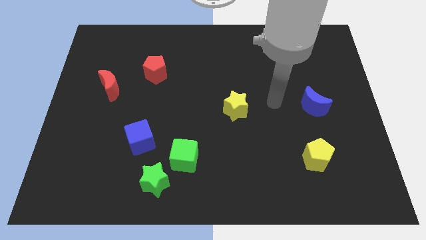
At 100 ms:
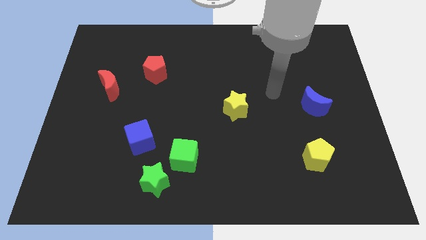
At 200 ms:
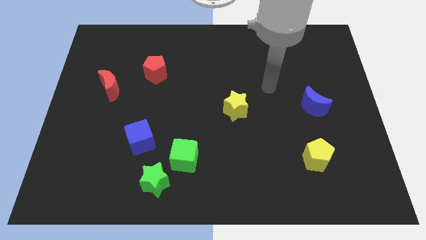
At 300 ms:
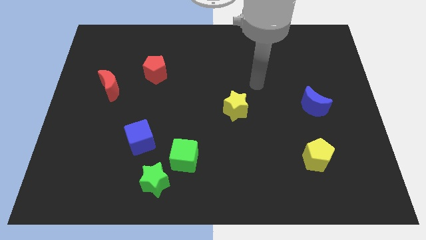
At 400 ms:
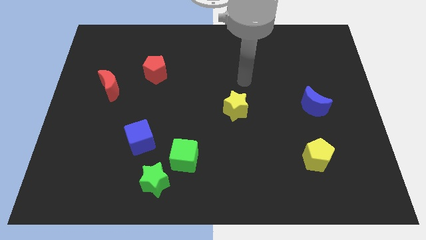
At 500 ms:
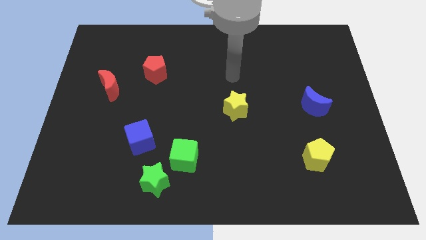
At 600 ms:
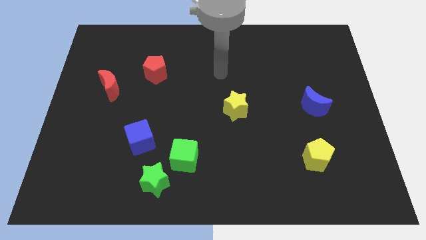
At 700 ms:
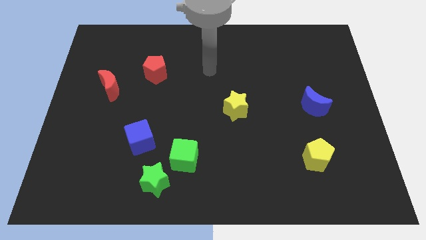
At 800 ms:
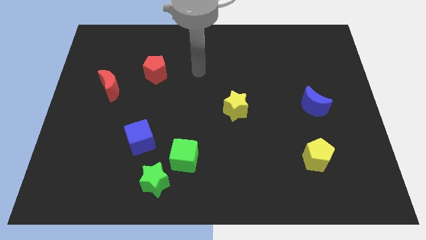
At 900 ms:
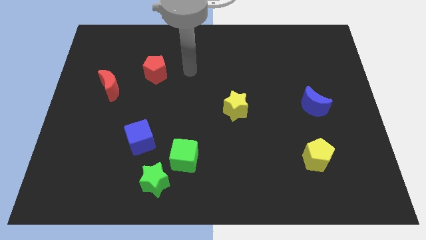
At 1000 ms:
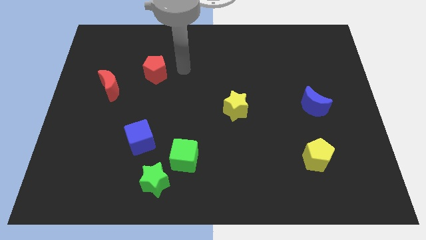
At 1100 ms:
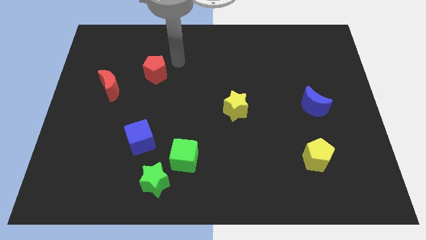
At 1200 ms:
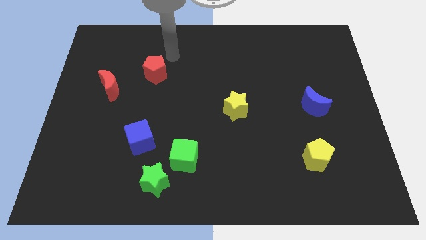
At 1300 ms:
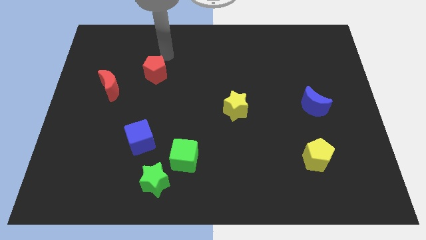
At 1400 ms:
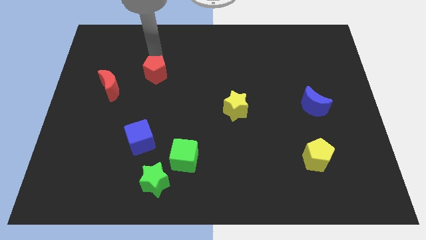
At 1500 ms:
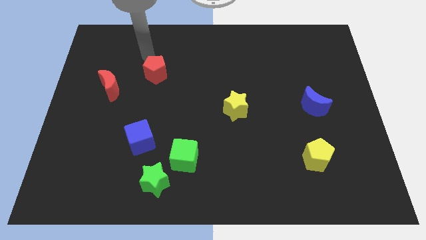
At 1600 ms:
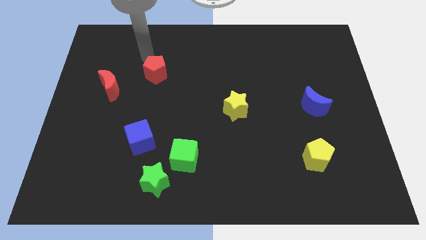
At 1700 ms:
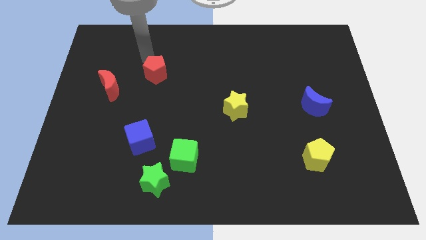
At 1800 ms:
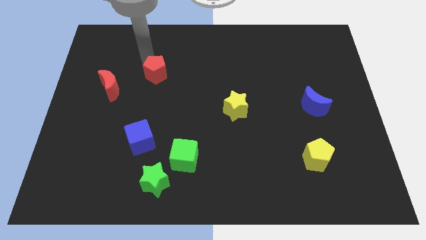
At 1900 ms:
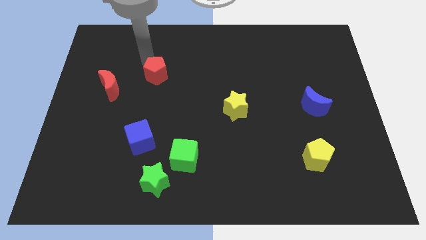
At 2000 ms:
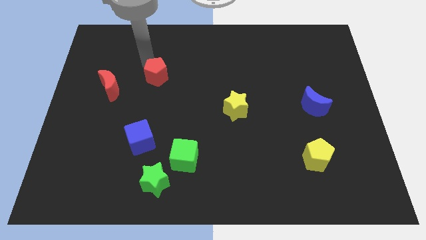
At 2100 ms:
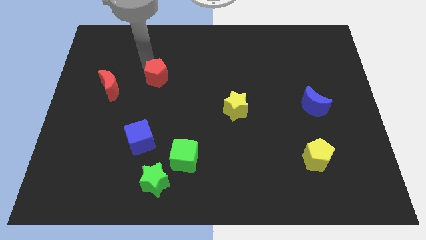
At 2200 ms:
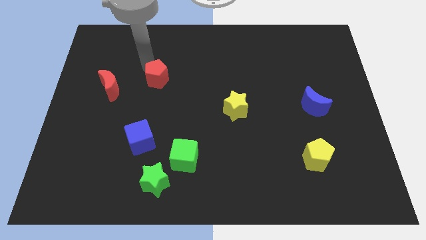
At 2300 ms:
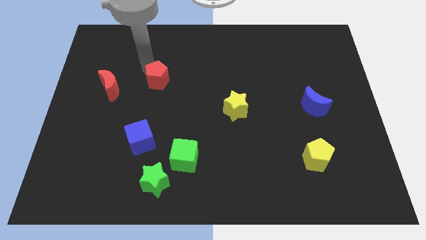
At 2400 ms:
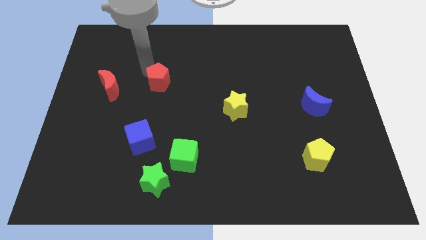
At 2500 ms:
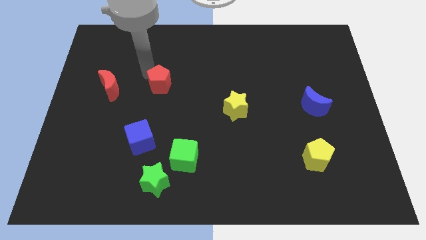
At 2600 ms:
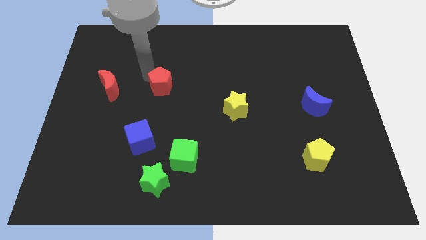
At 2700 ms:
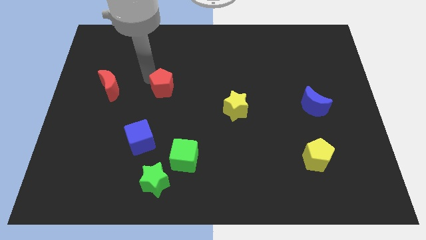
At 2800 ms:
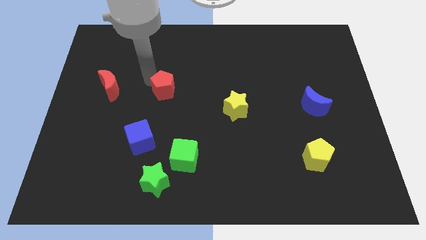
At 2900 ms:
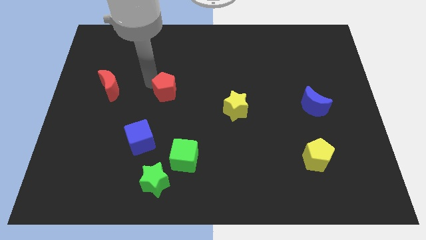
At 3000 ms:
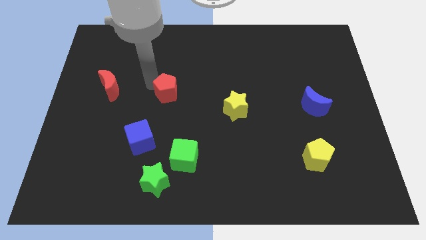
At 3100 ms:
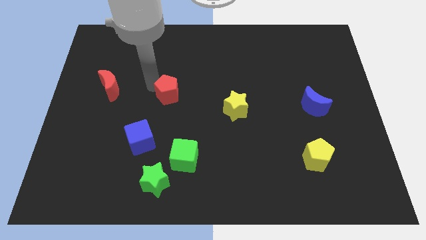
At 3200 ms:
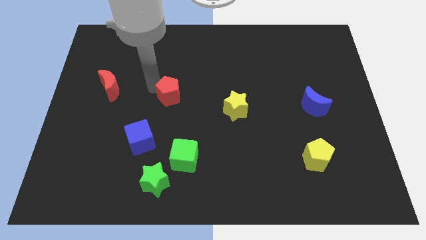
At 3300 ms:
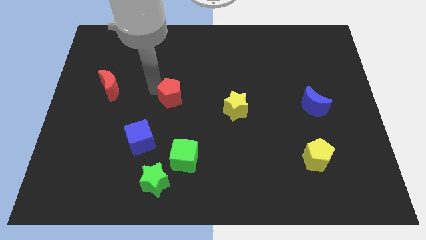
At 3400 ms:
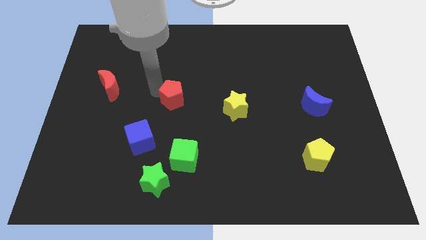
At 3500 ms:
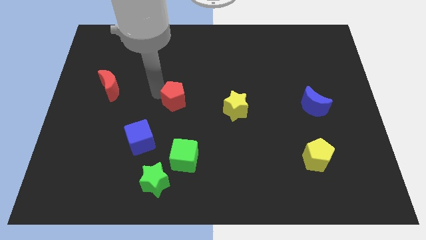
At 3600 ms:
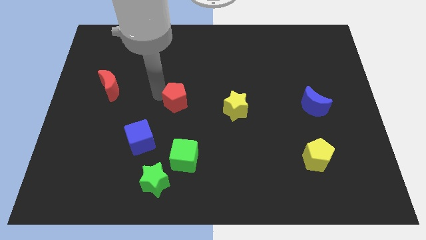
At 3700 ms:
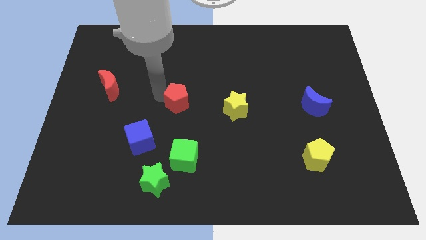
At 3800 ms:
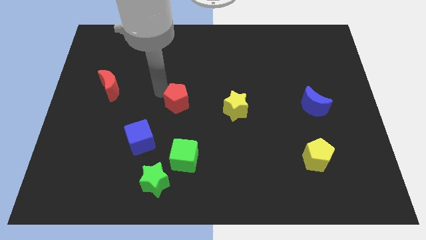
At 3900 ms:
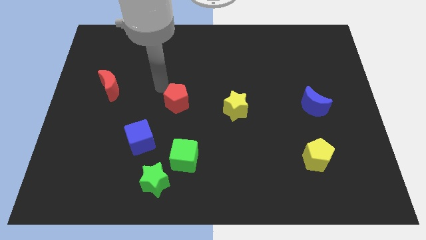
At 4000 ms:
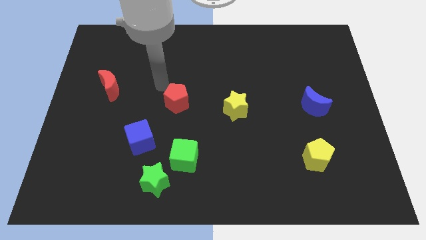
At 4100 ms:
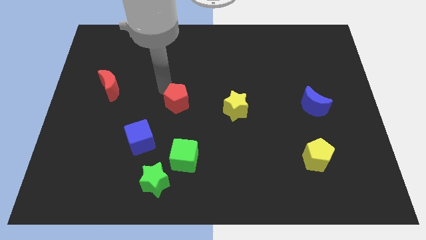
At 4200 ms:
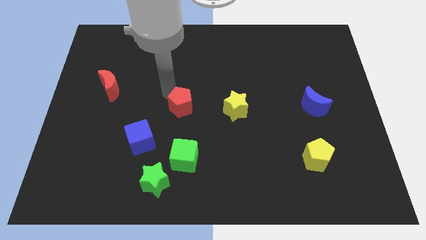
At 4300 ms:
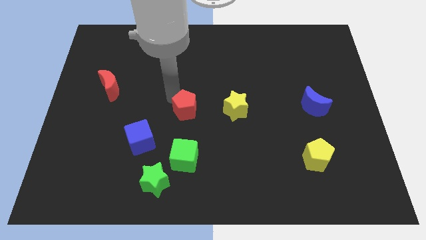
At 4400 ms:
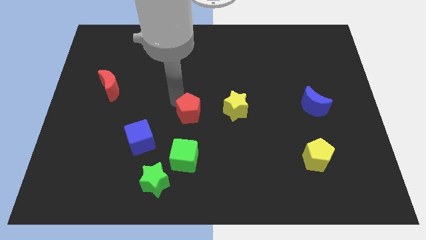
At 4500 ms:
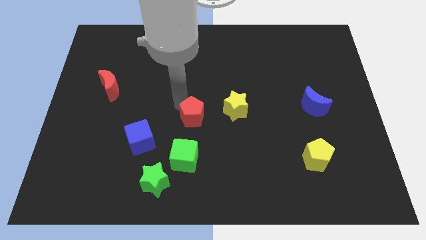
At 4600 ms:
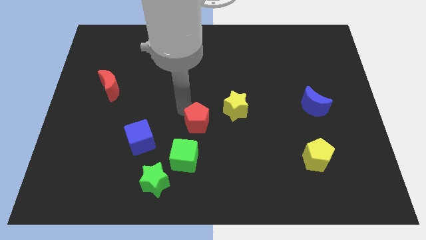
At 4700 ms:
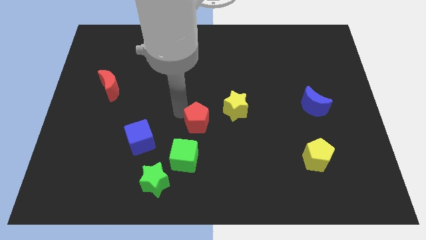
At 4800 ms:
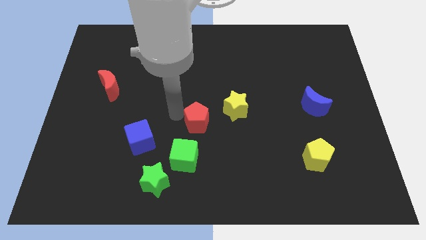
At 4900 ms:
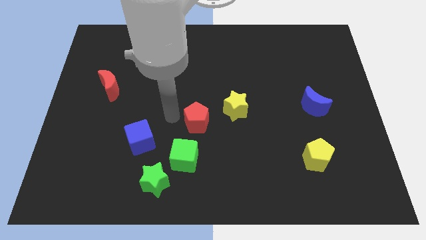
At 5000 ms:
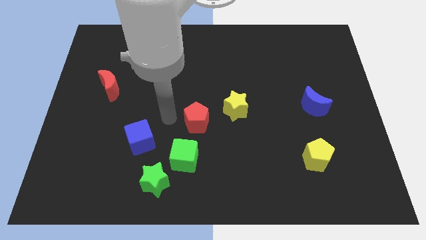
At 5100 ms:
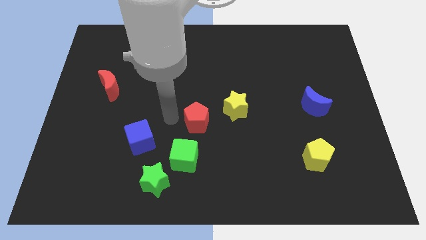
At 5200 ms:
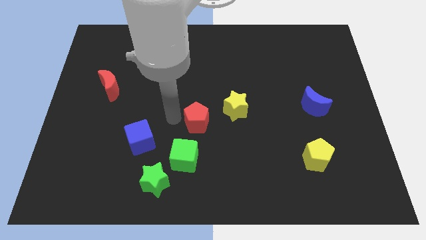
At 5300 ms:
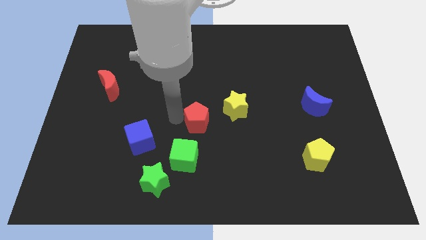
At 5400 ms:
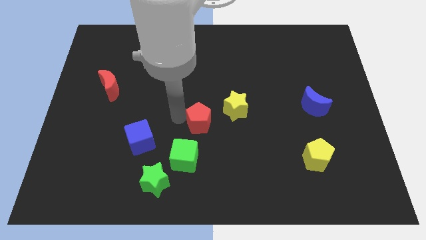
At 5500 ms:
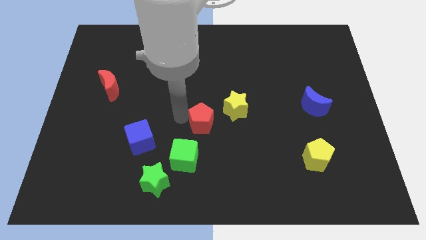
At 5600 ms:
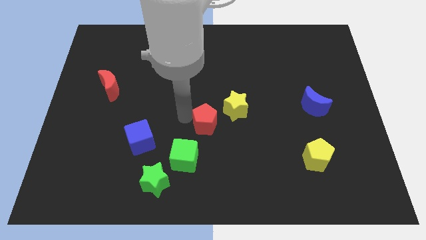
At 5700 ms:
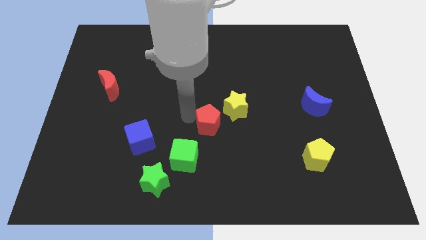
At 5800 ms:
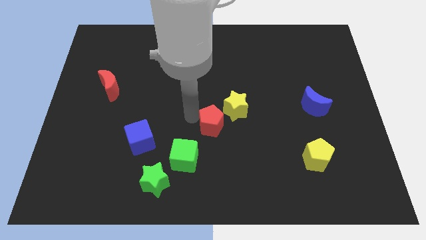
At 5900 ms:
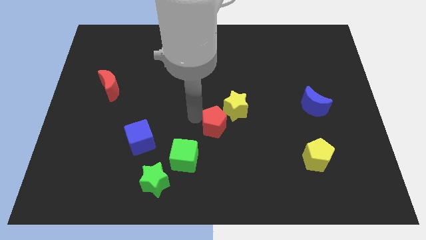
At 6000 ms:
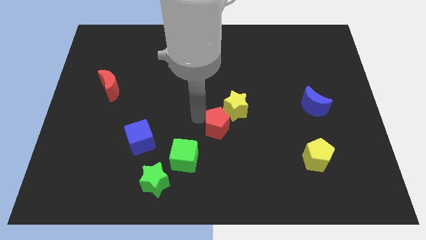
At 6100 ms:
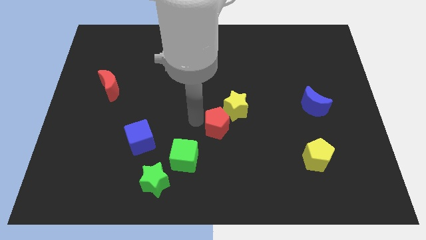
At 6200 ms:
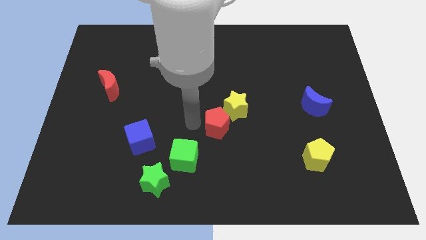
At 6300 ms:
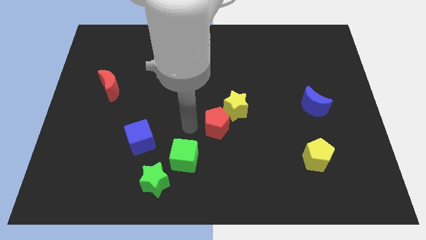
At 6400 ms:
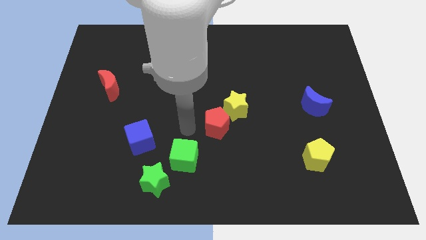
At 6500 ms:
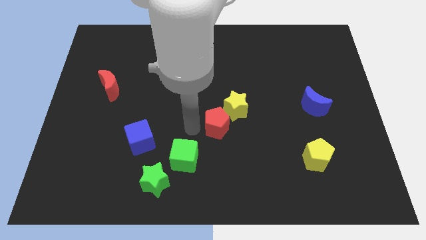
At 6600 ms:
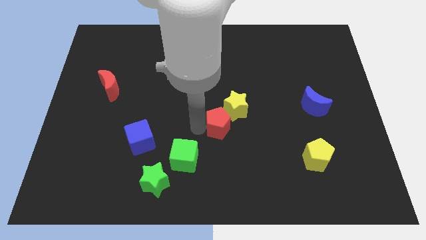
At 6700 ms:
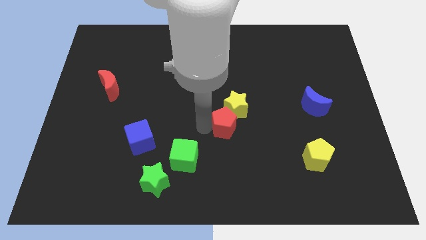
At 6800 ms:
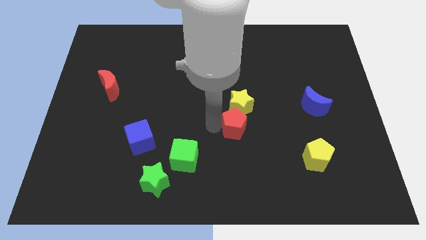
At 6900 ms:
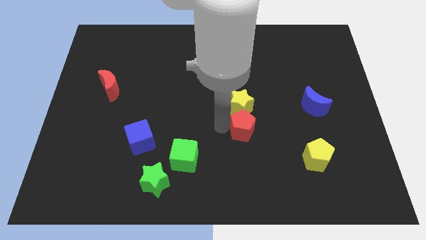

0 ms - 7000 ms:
slide the red pentagon diagonally down and to the right of the yellow star
